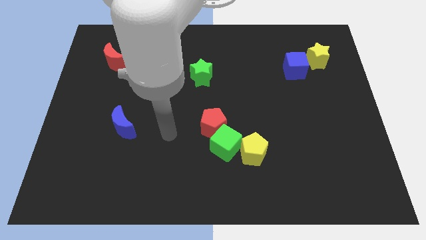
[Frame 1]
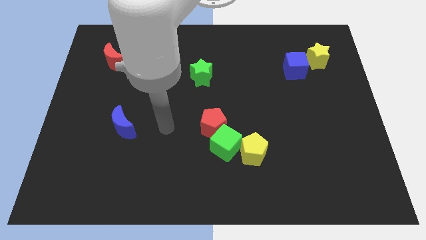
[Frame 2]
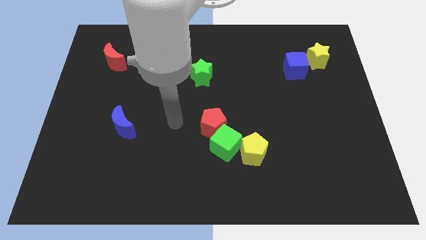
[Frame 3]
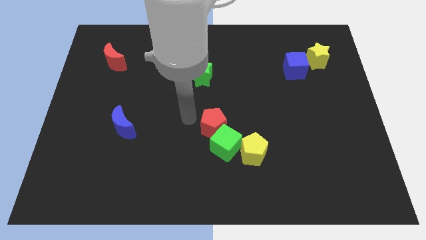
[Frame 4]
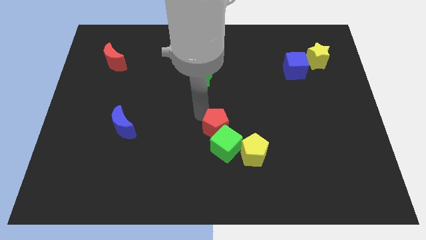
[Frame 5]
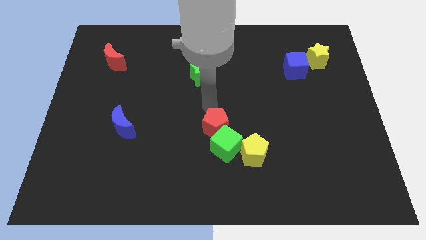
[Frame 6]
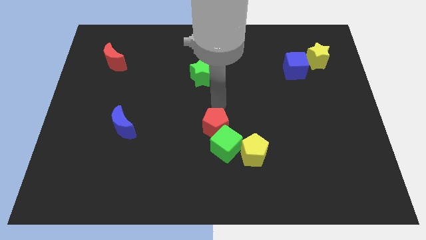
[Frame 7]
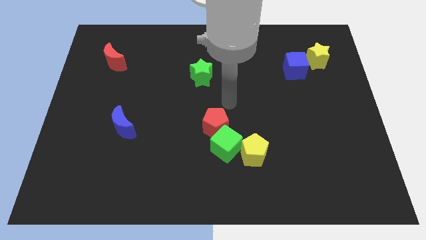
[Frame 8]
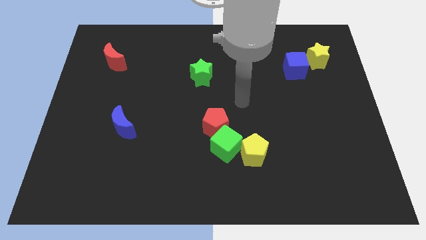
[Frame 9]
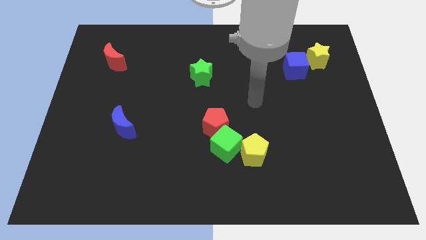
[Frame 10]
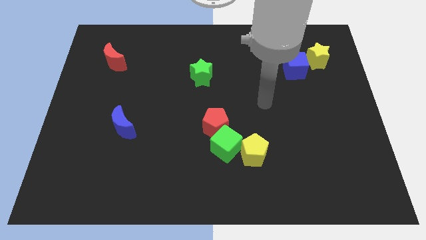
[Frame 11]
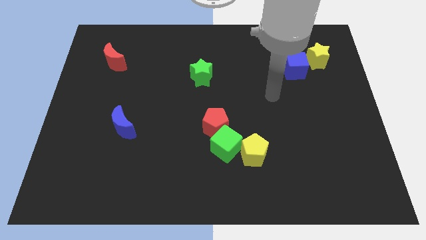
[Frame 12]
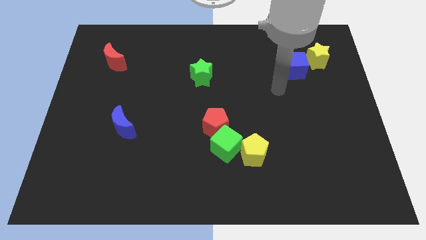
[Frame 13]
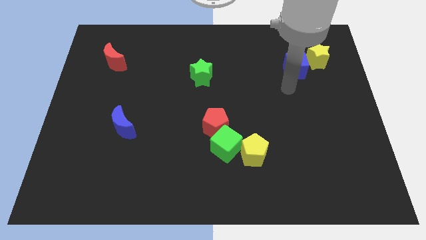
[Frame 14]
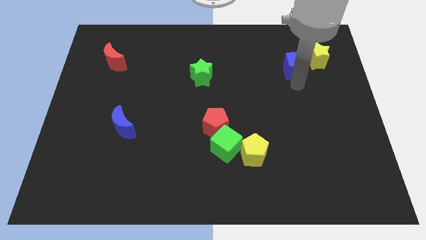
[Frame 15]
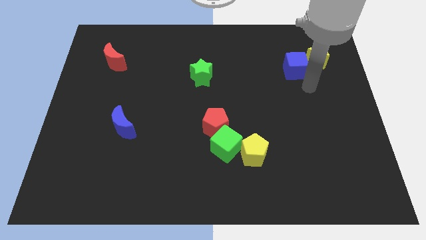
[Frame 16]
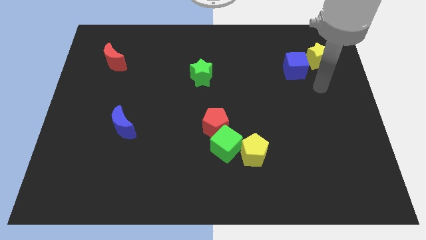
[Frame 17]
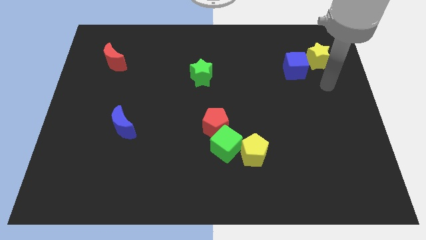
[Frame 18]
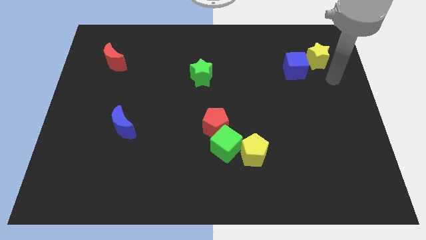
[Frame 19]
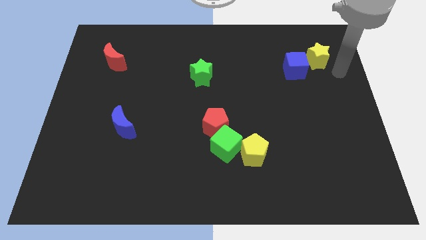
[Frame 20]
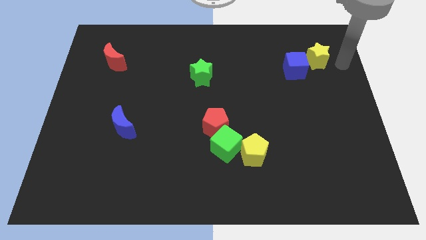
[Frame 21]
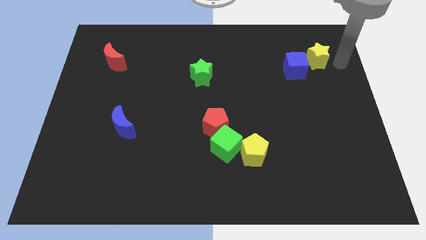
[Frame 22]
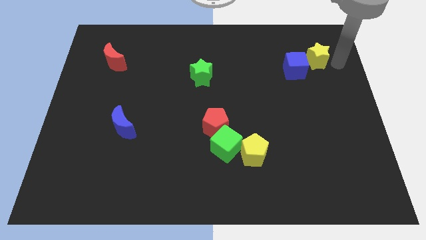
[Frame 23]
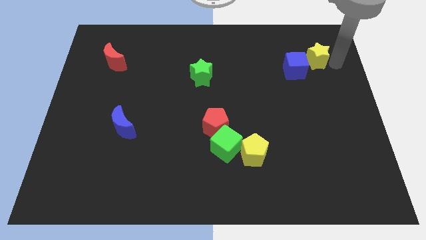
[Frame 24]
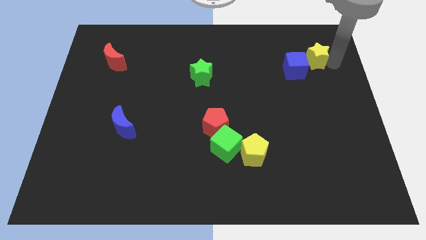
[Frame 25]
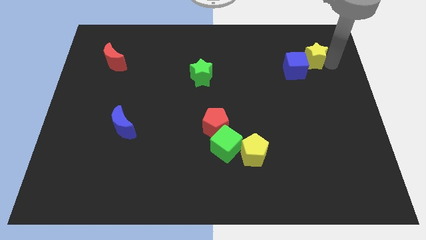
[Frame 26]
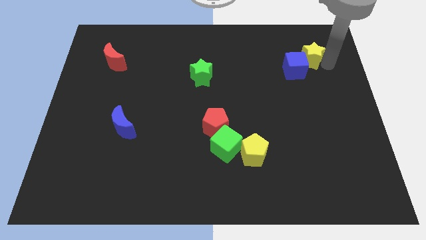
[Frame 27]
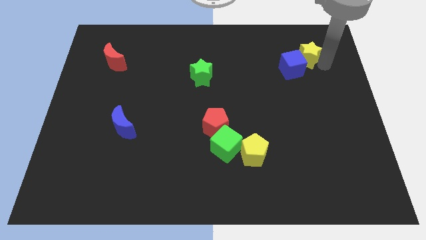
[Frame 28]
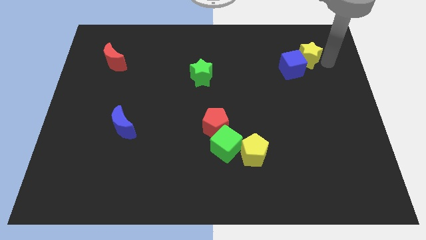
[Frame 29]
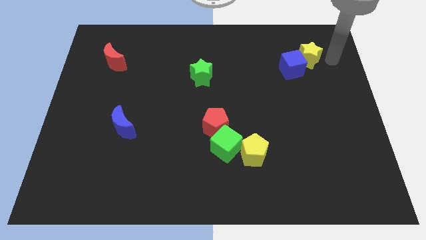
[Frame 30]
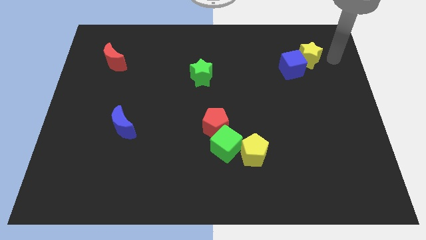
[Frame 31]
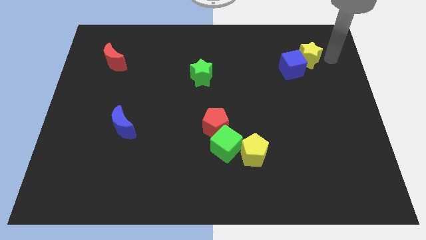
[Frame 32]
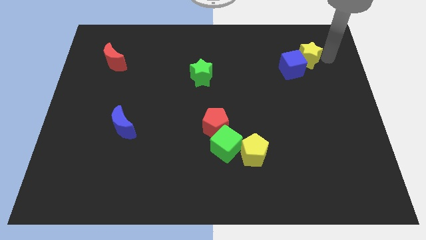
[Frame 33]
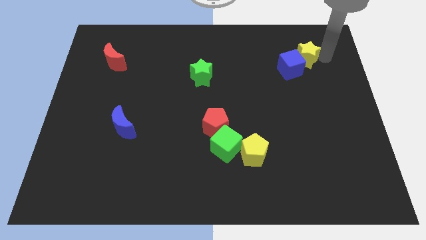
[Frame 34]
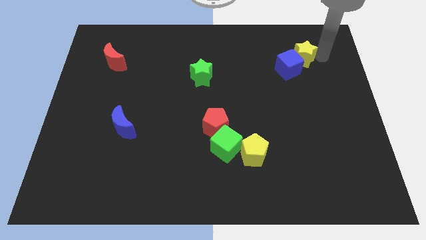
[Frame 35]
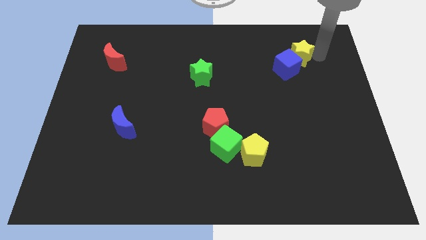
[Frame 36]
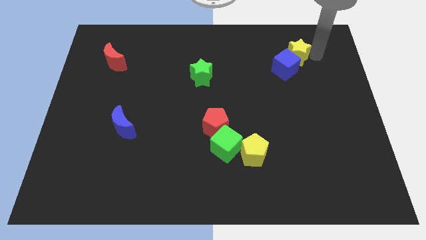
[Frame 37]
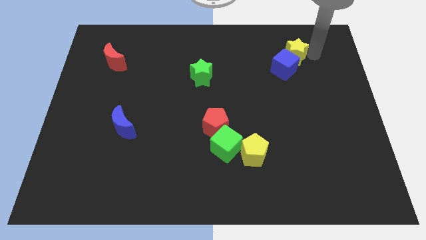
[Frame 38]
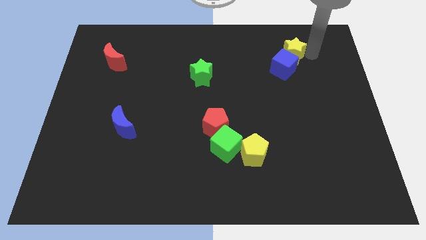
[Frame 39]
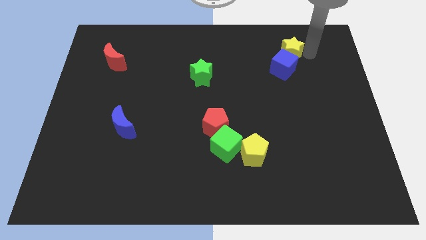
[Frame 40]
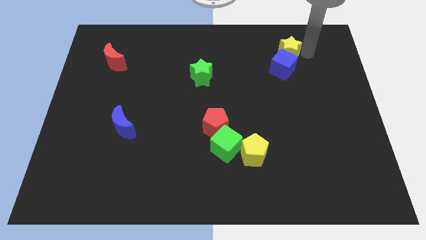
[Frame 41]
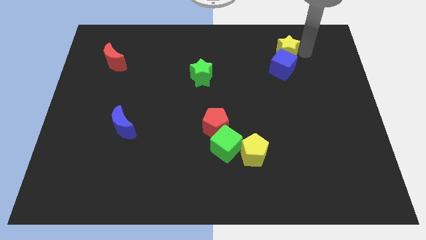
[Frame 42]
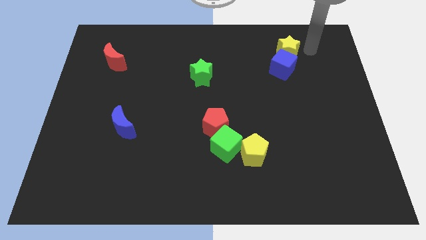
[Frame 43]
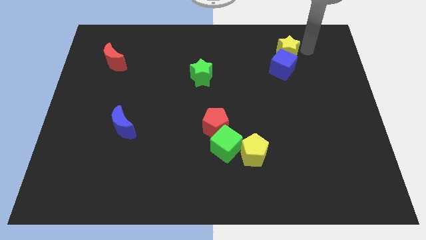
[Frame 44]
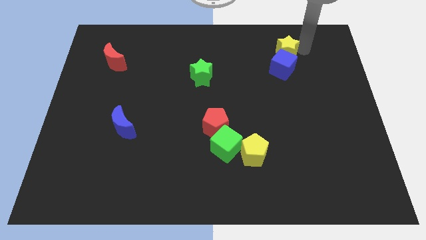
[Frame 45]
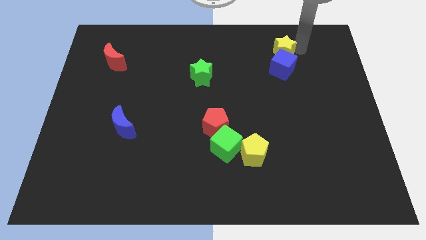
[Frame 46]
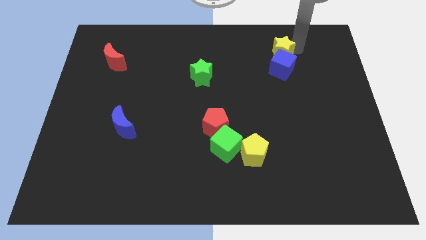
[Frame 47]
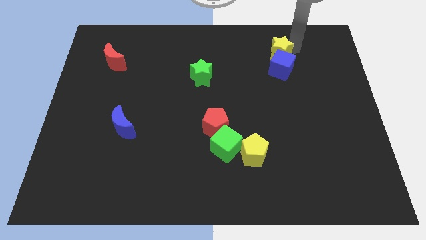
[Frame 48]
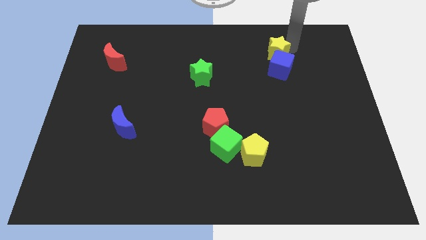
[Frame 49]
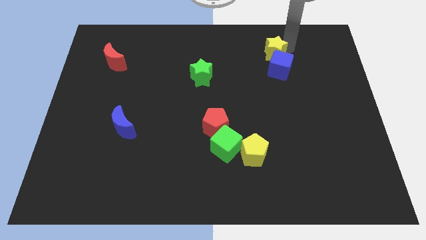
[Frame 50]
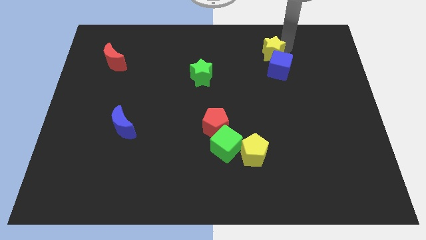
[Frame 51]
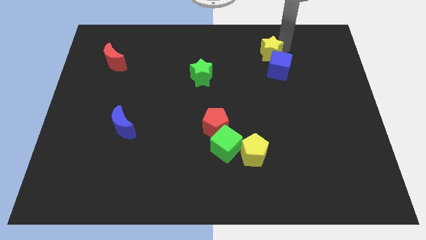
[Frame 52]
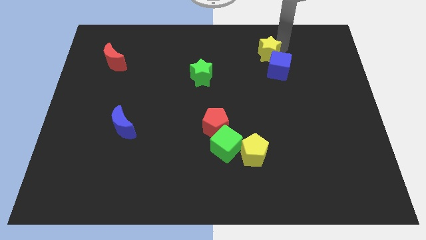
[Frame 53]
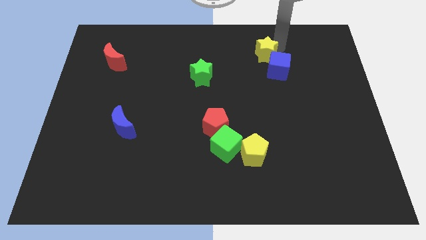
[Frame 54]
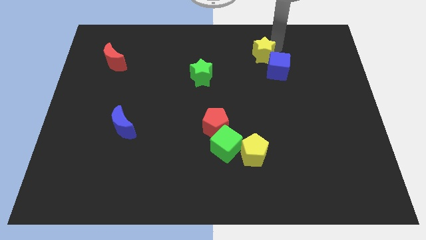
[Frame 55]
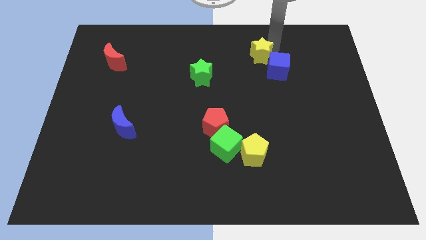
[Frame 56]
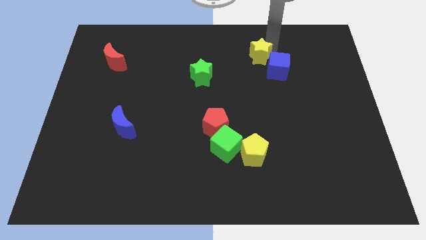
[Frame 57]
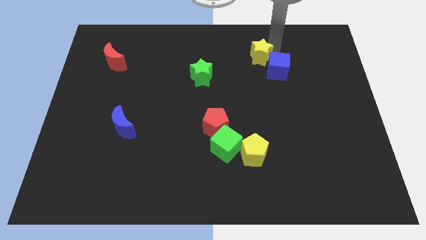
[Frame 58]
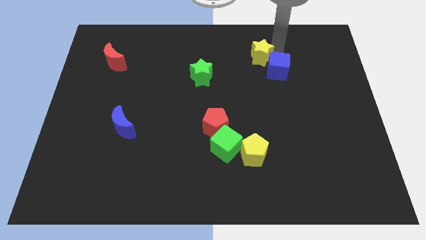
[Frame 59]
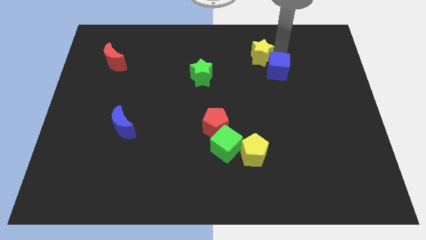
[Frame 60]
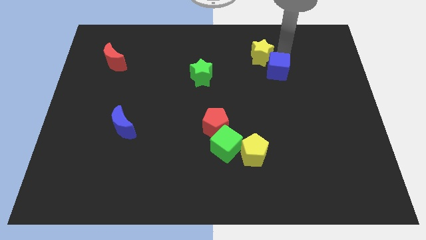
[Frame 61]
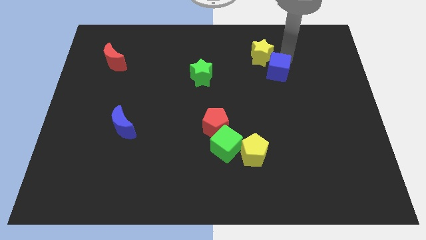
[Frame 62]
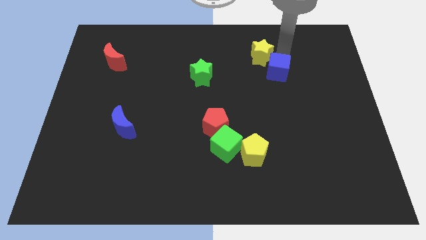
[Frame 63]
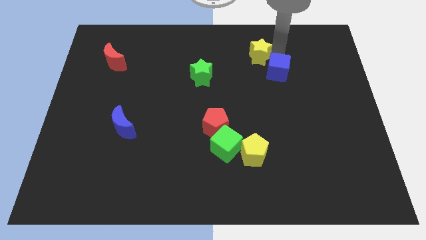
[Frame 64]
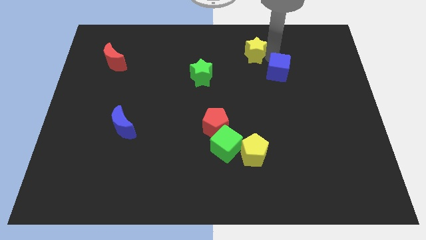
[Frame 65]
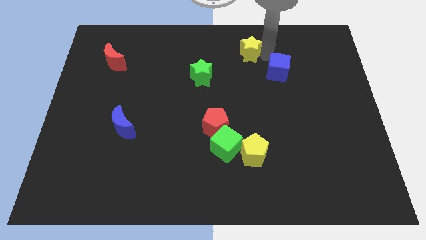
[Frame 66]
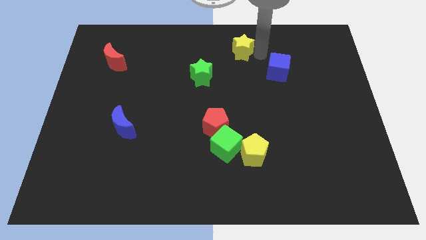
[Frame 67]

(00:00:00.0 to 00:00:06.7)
push the yellow star to the top
